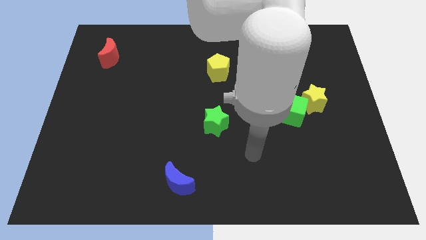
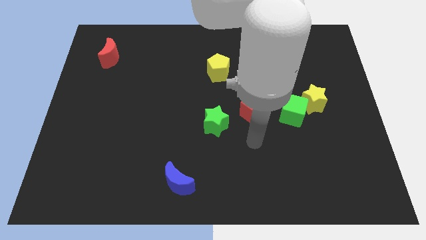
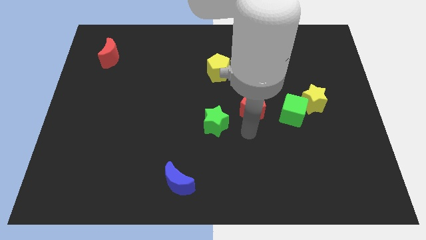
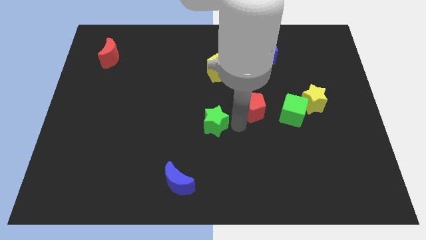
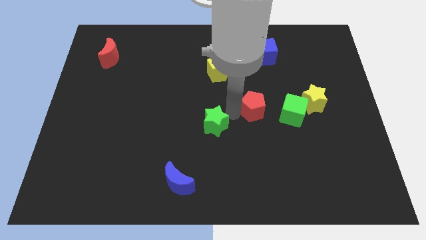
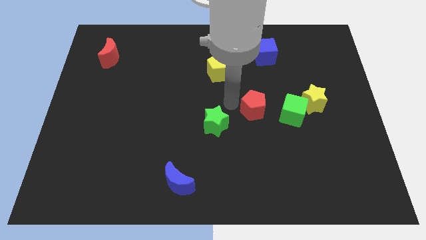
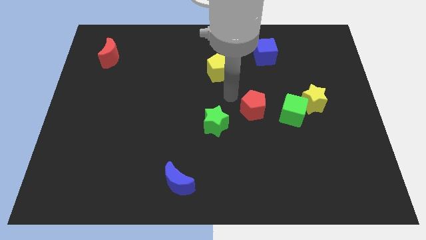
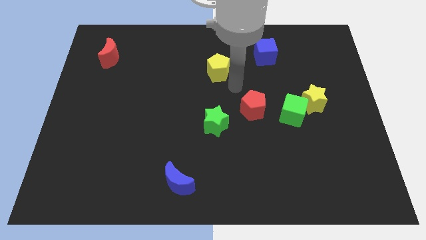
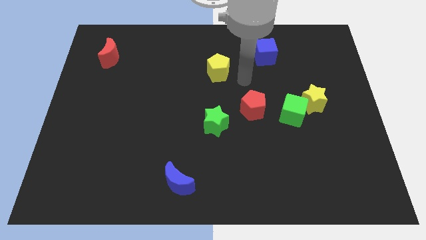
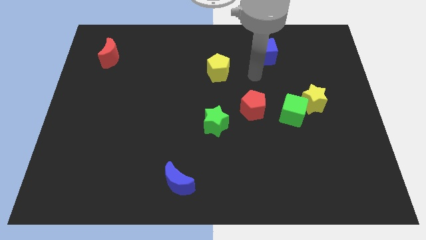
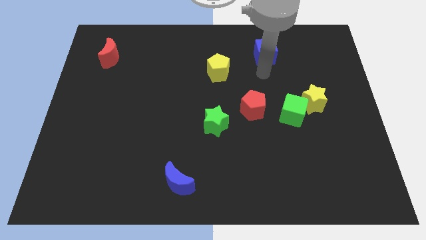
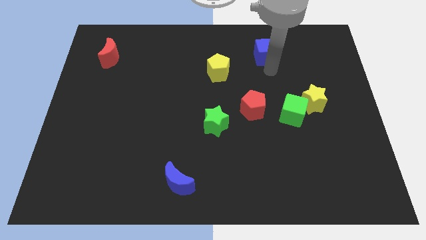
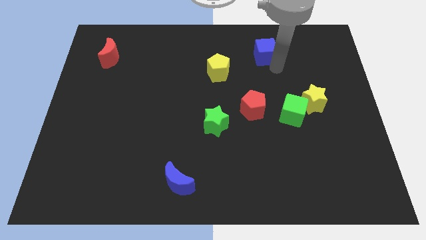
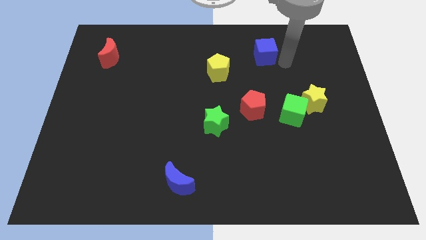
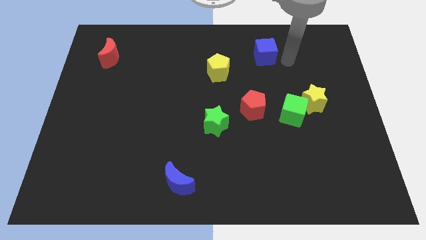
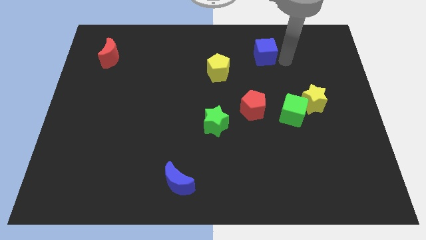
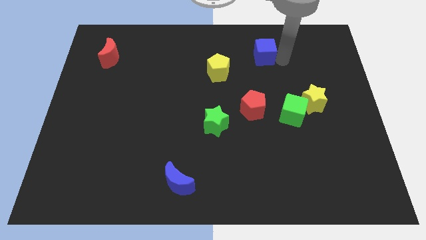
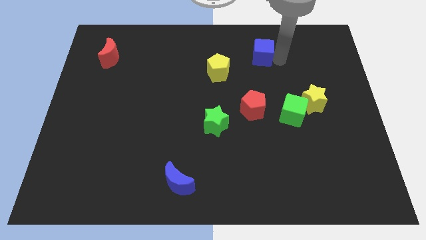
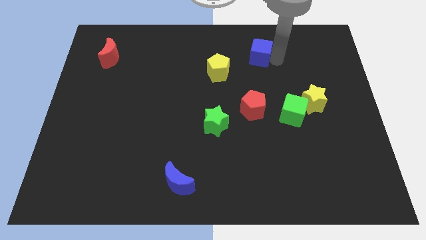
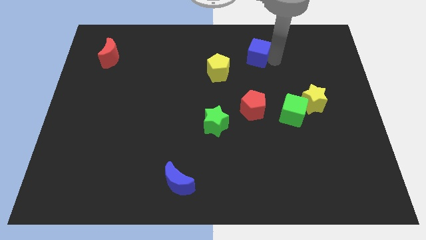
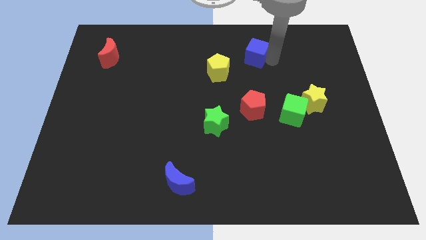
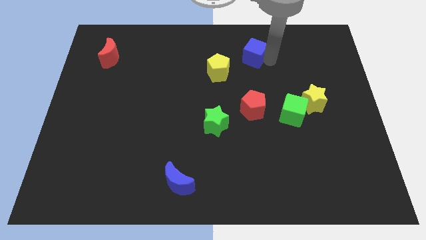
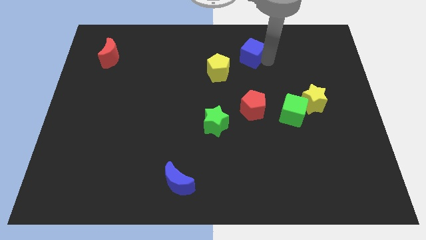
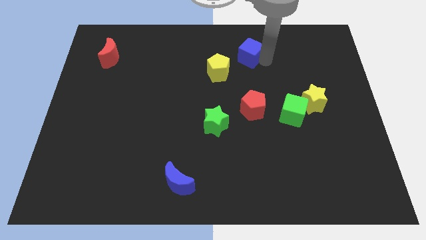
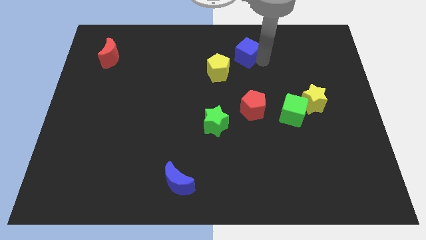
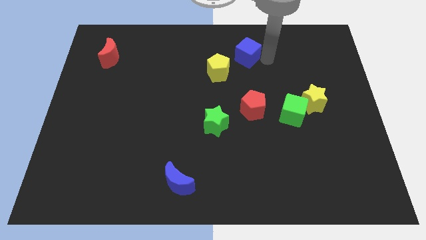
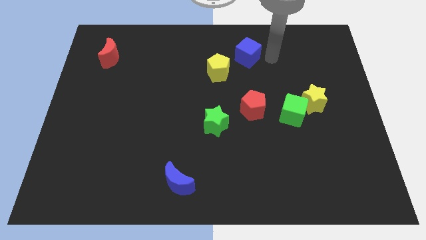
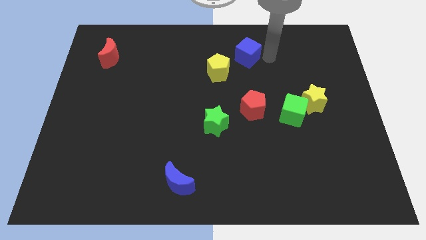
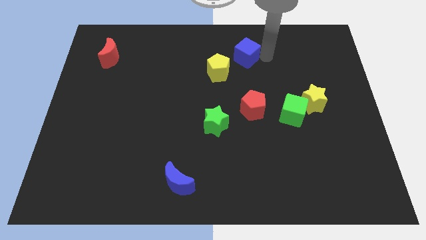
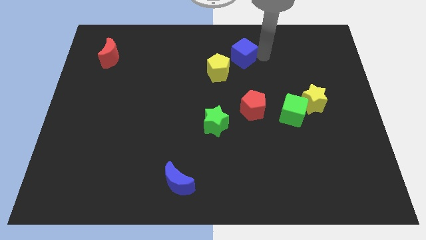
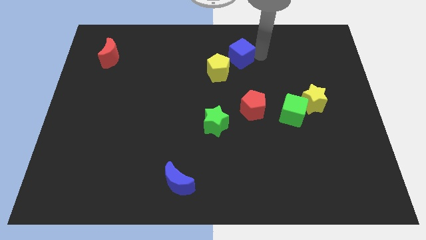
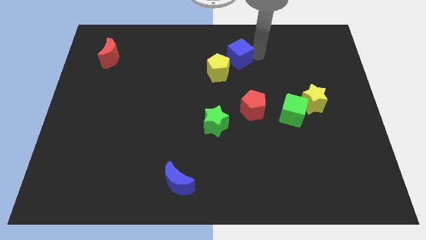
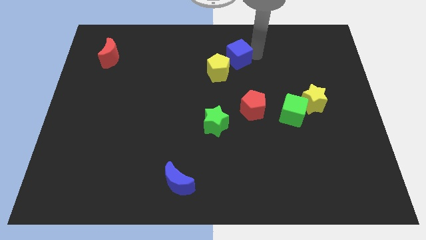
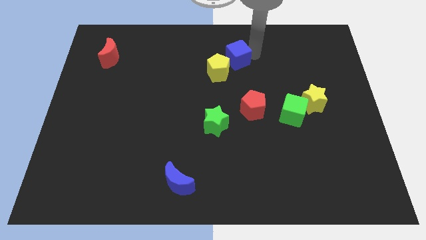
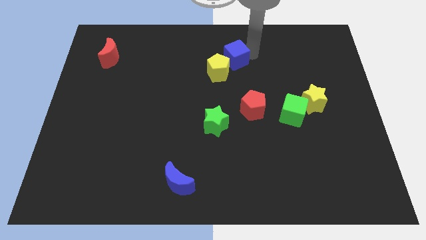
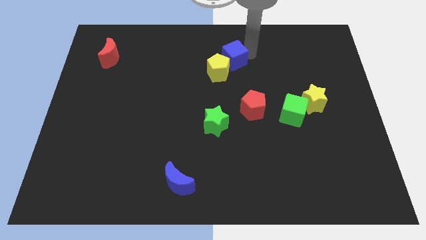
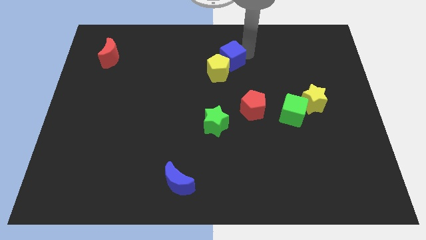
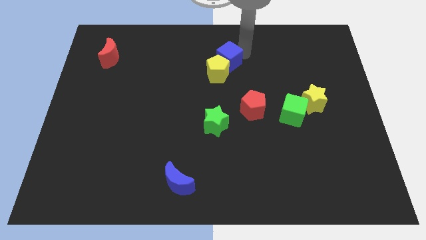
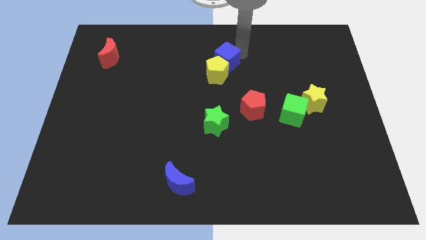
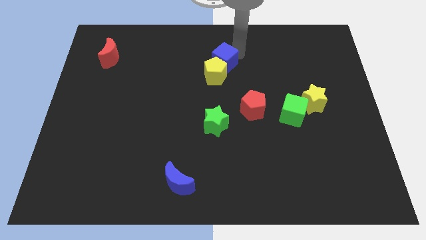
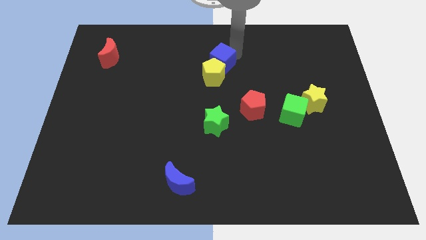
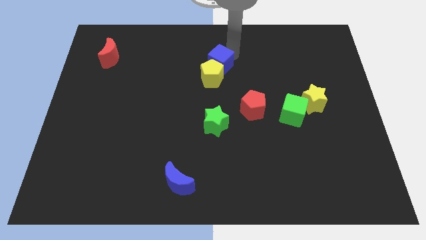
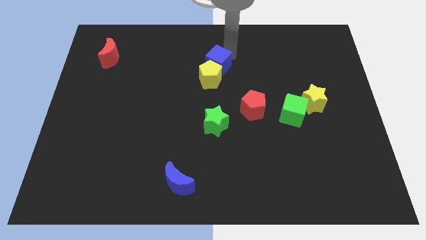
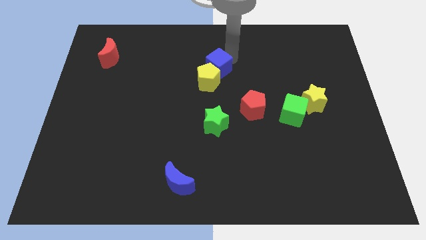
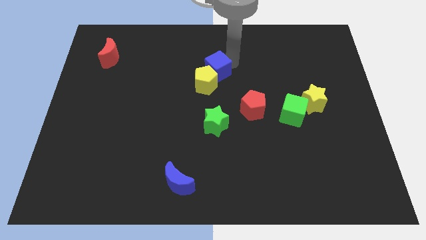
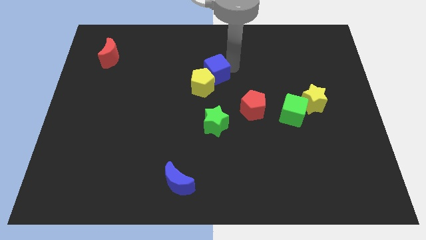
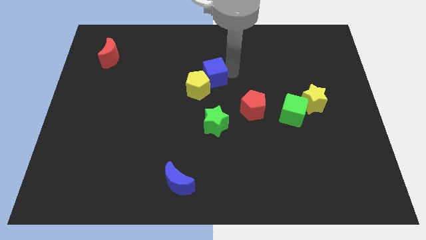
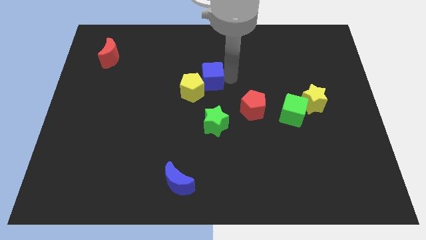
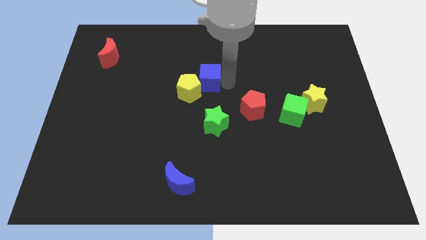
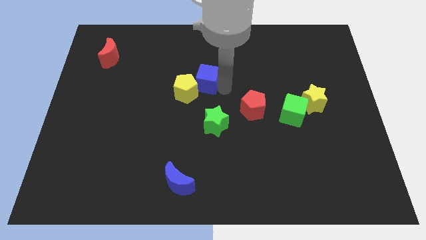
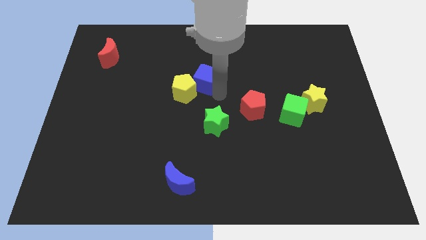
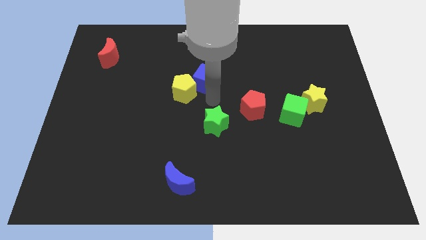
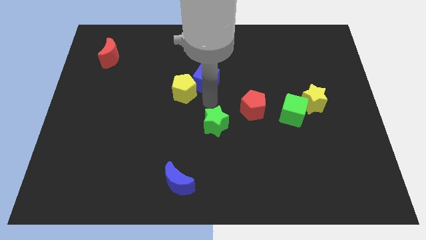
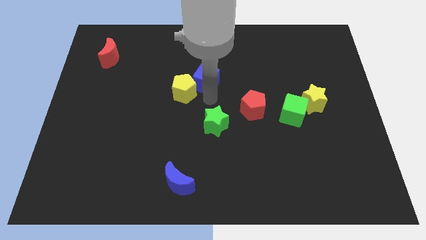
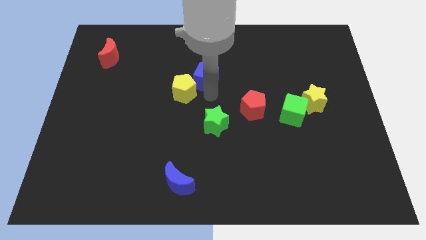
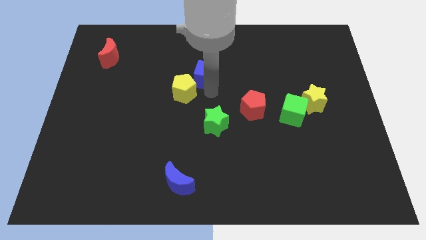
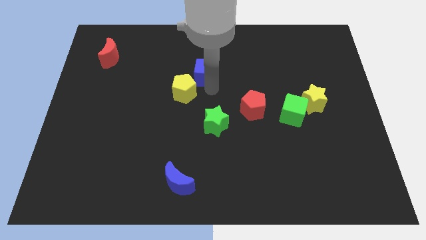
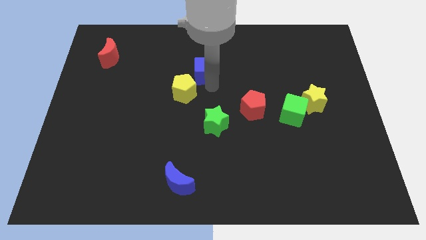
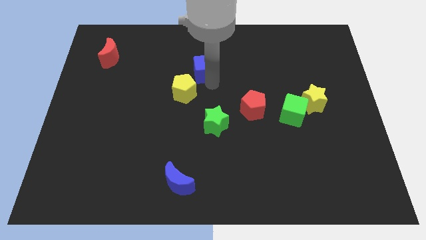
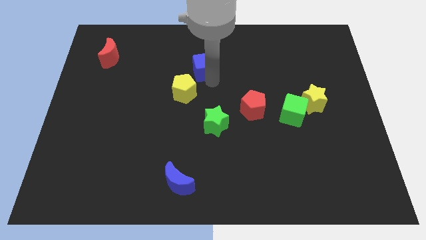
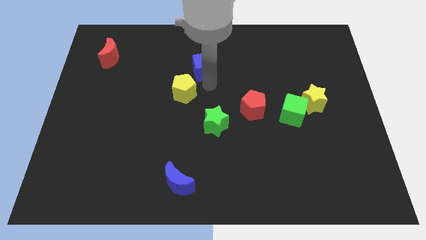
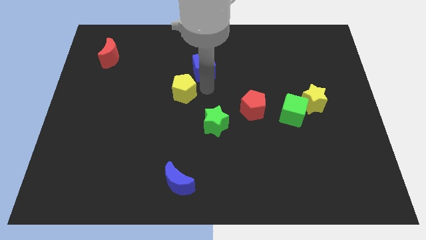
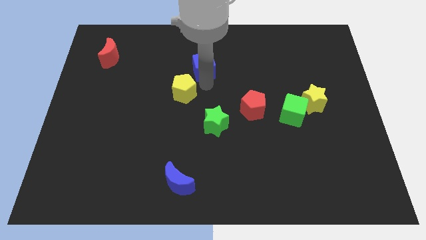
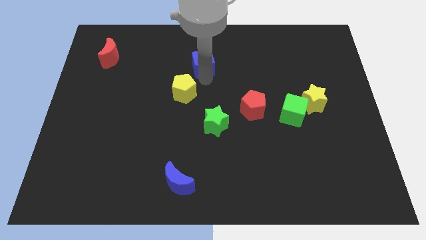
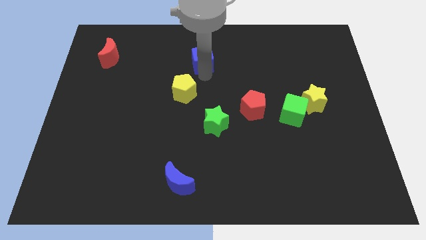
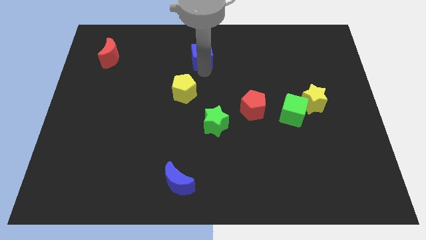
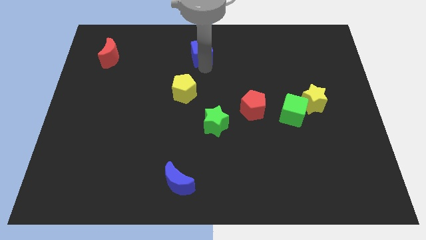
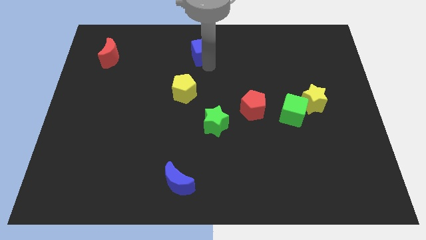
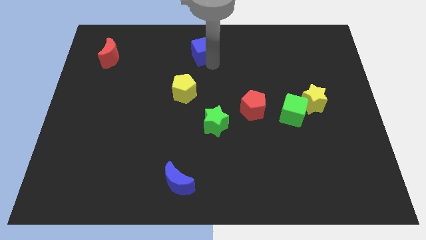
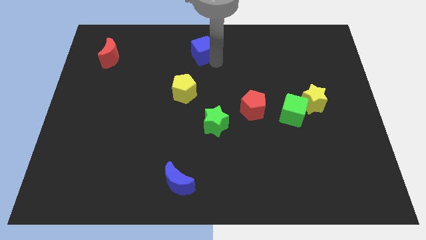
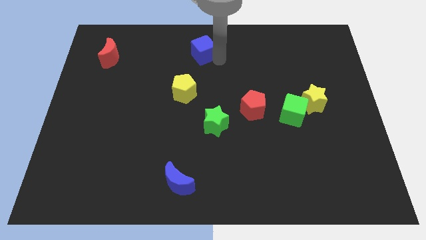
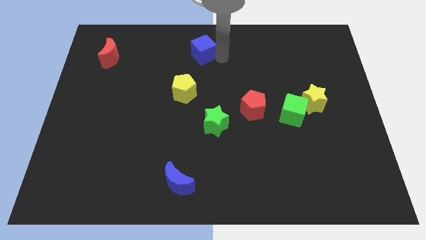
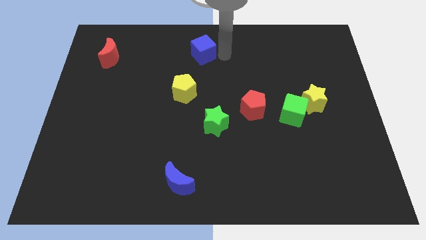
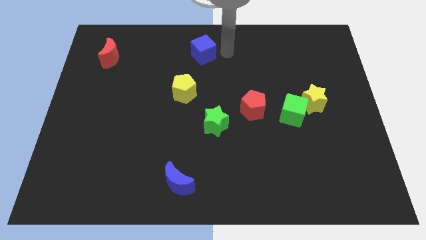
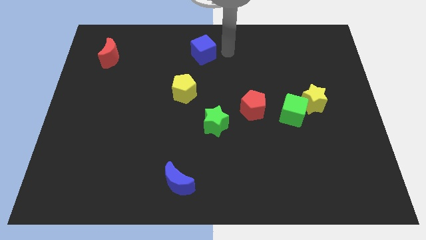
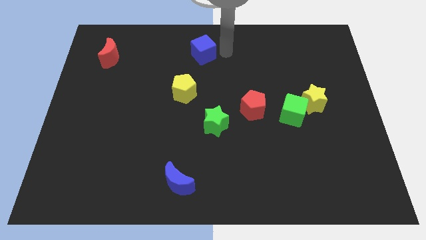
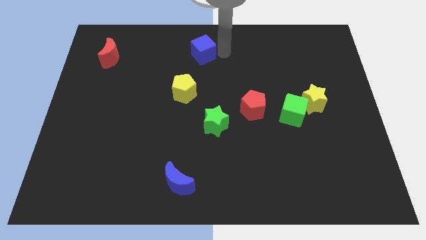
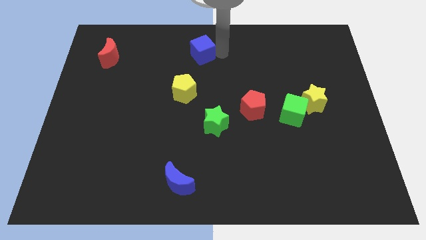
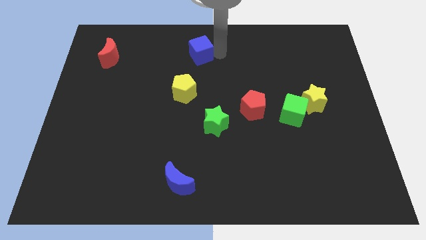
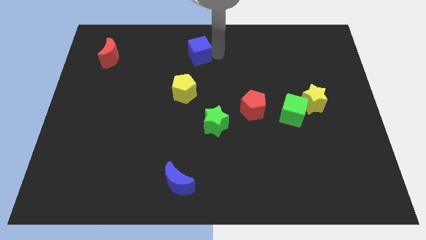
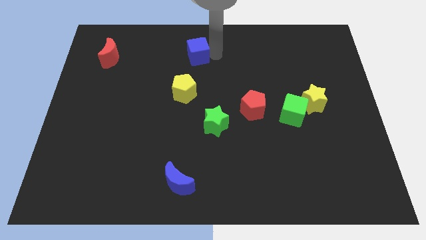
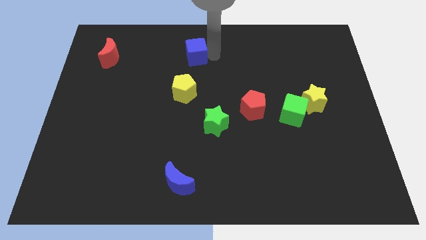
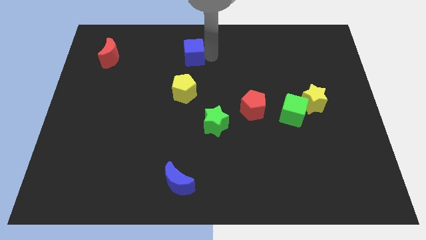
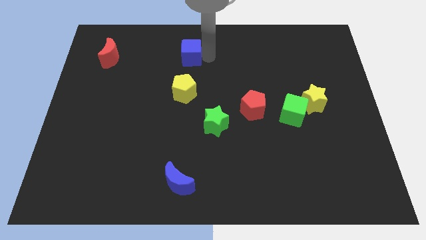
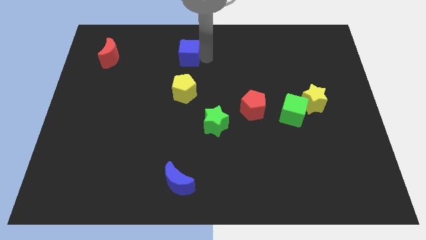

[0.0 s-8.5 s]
move the blue cube left
